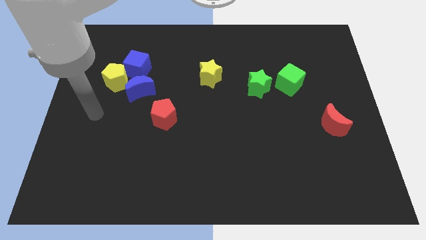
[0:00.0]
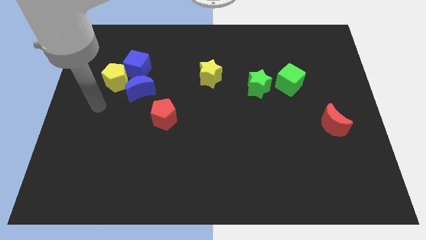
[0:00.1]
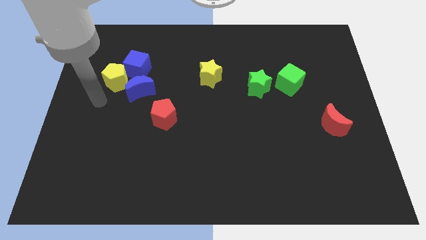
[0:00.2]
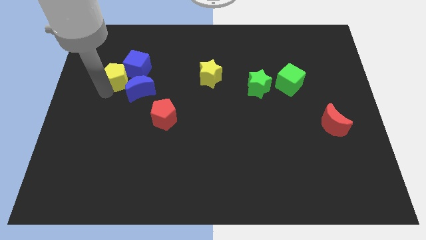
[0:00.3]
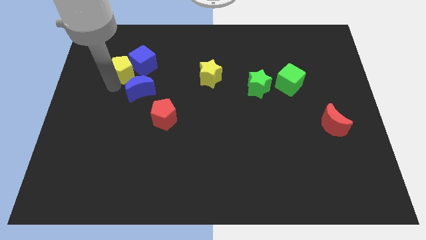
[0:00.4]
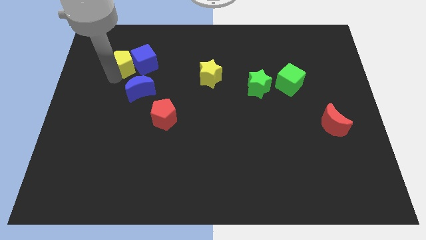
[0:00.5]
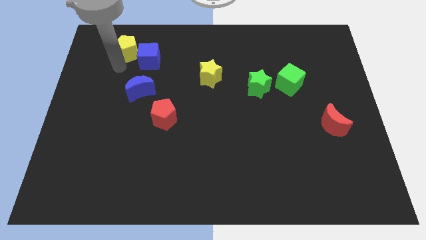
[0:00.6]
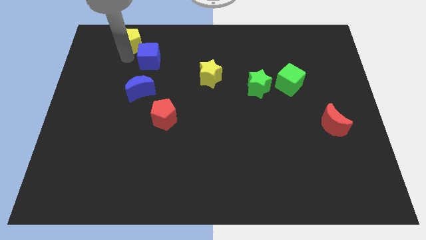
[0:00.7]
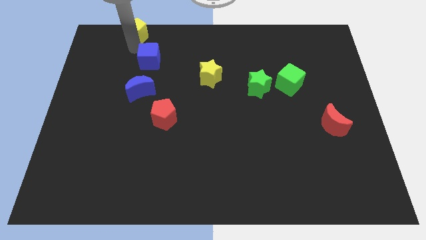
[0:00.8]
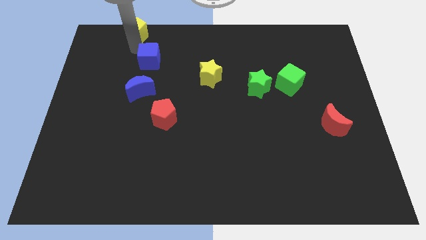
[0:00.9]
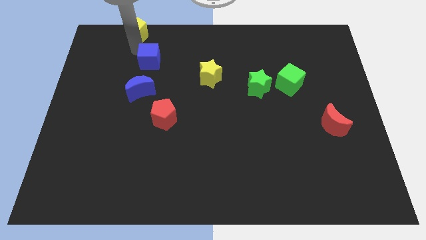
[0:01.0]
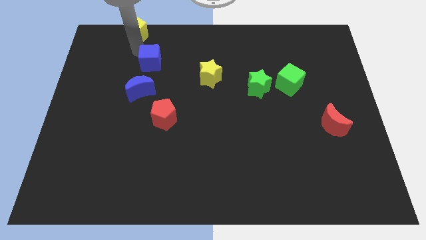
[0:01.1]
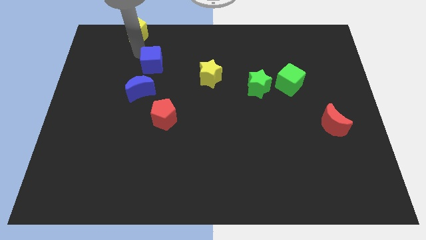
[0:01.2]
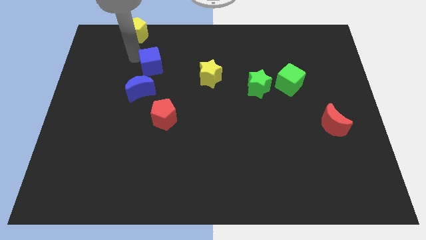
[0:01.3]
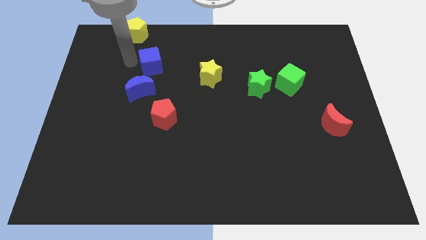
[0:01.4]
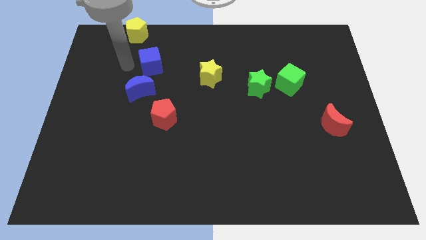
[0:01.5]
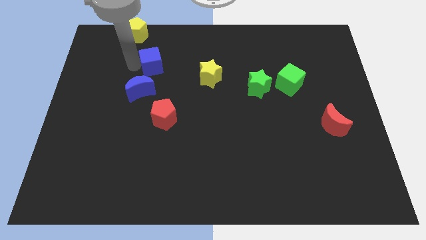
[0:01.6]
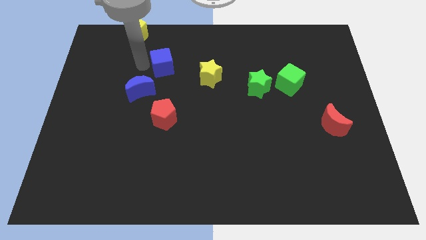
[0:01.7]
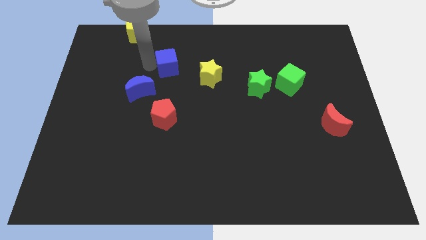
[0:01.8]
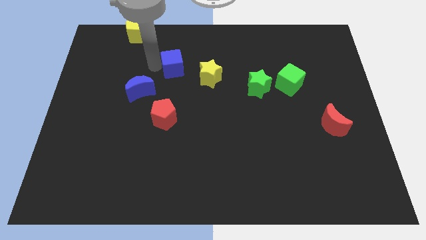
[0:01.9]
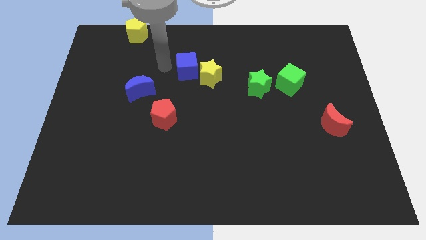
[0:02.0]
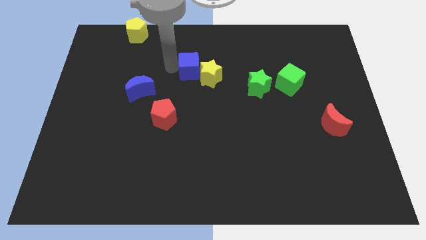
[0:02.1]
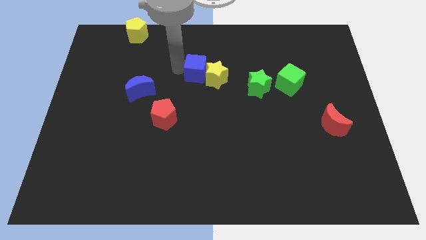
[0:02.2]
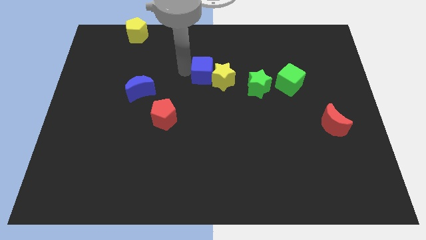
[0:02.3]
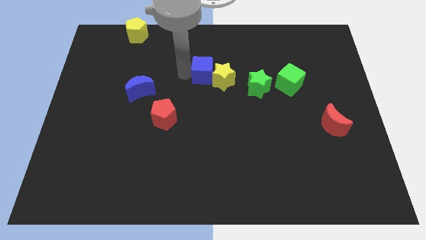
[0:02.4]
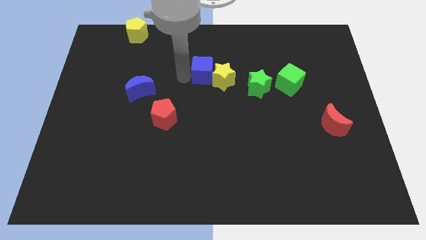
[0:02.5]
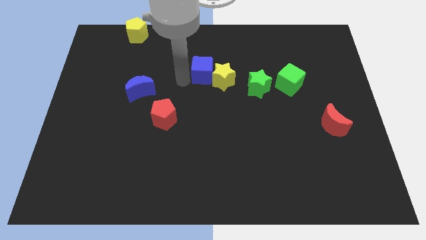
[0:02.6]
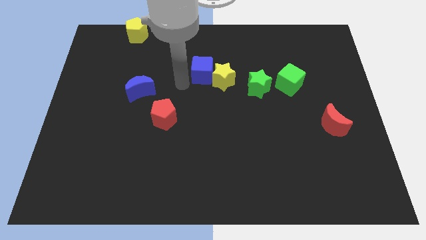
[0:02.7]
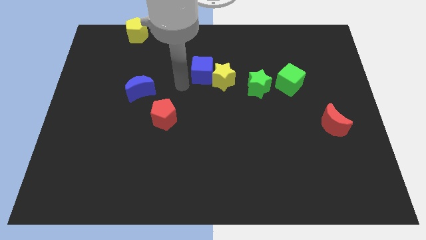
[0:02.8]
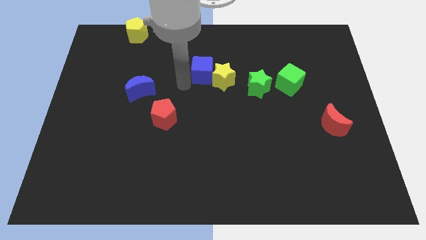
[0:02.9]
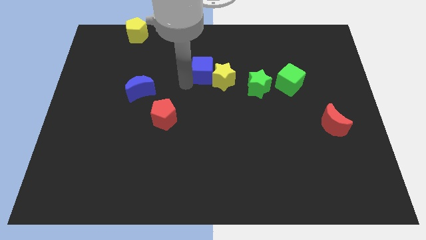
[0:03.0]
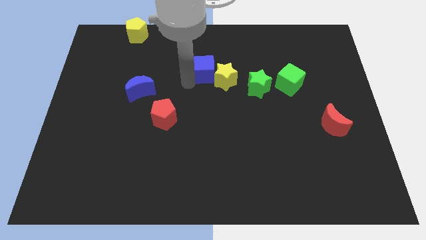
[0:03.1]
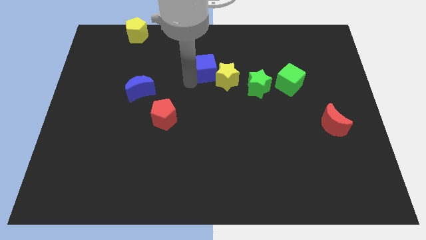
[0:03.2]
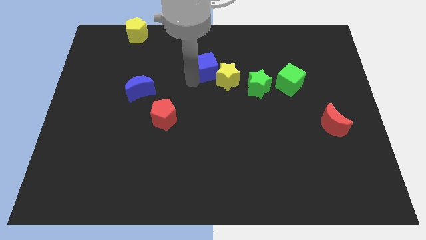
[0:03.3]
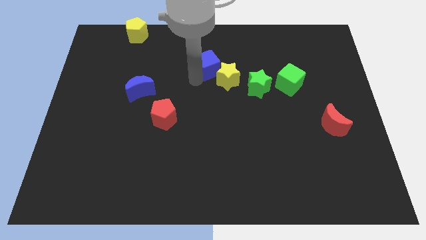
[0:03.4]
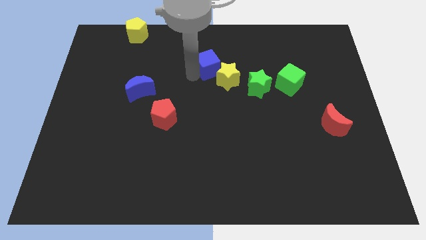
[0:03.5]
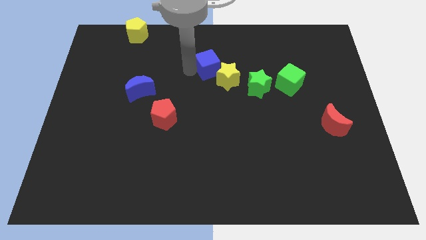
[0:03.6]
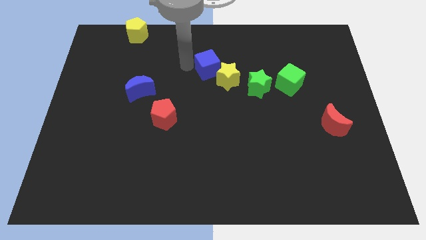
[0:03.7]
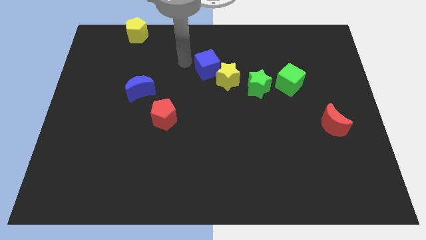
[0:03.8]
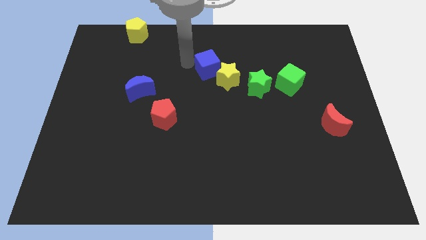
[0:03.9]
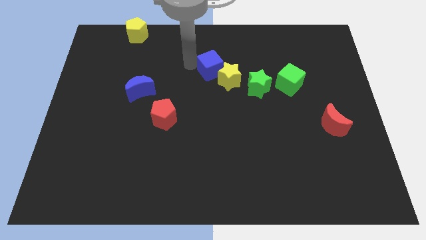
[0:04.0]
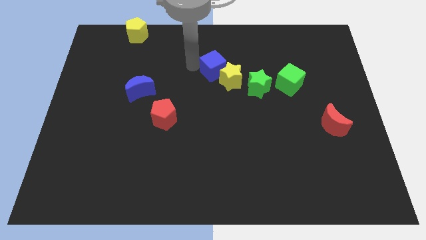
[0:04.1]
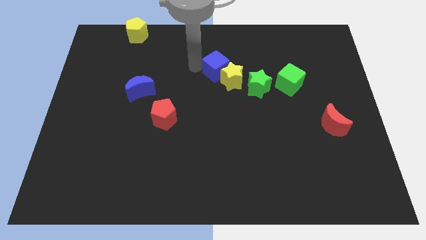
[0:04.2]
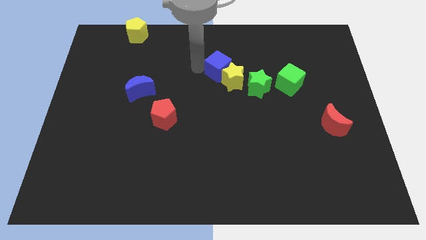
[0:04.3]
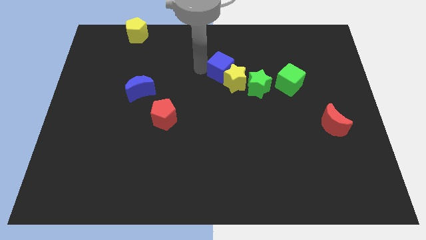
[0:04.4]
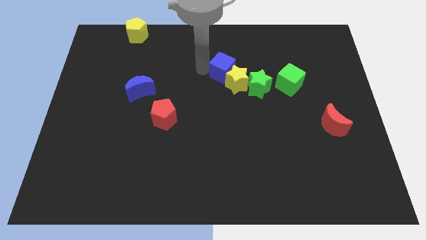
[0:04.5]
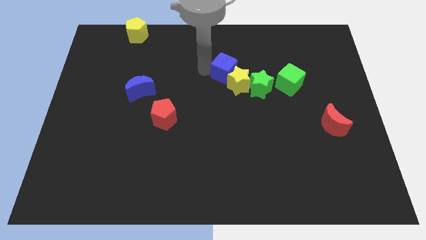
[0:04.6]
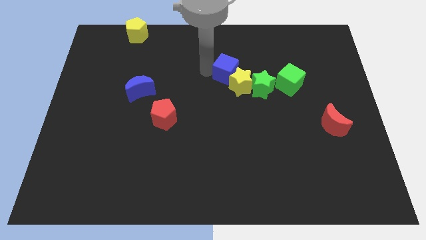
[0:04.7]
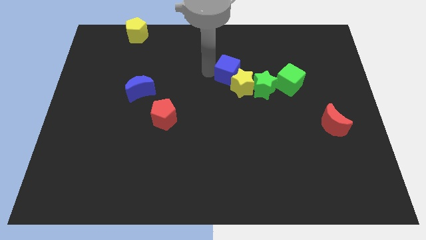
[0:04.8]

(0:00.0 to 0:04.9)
move the blue cube to the left of the green cube

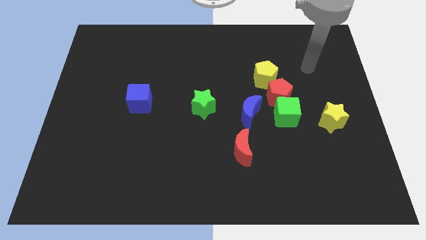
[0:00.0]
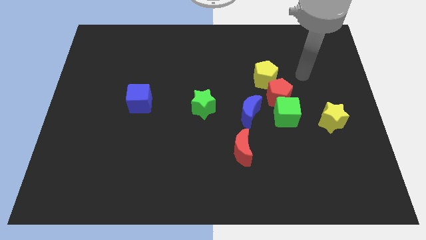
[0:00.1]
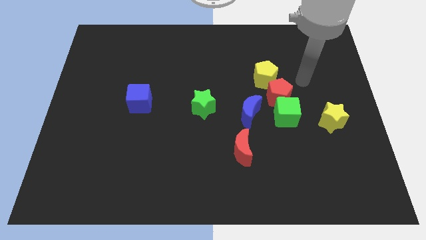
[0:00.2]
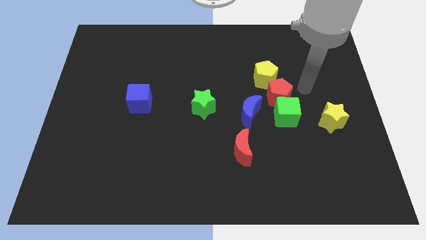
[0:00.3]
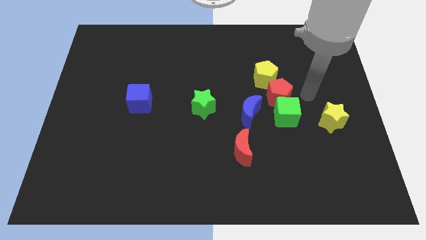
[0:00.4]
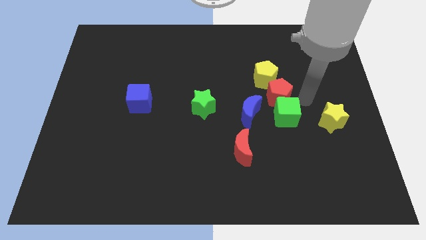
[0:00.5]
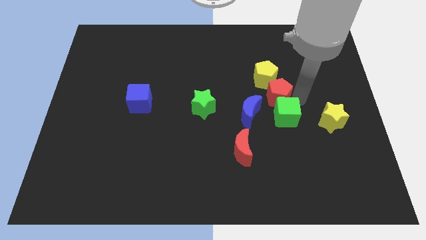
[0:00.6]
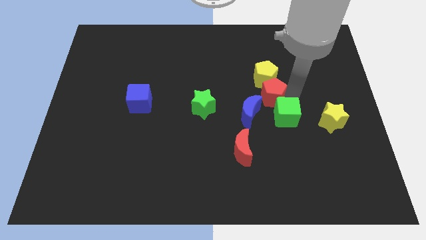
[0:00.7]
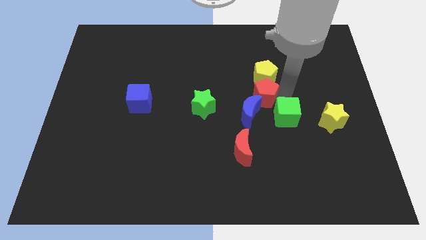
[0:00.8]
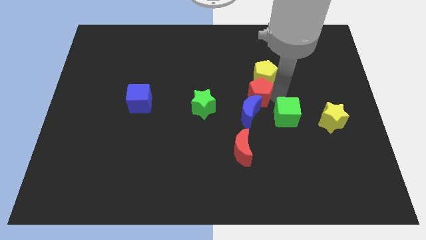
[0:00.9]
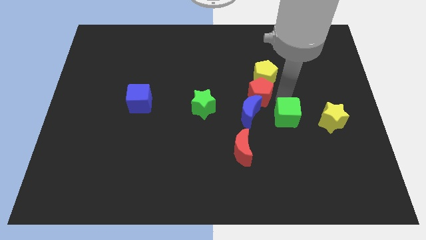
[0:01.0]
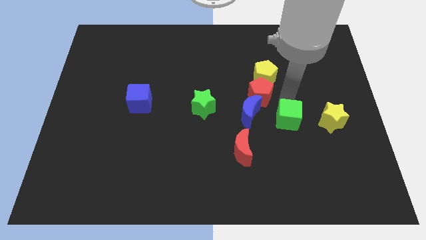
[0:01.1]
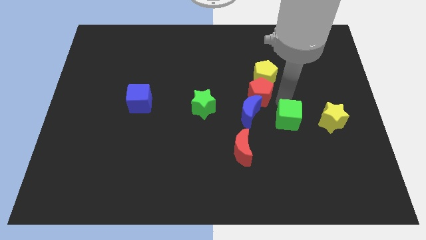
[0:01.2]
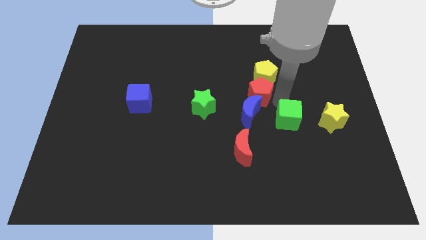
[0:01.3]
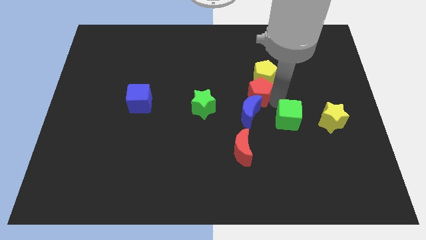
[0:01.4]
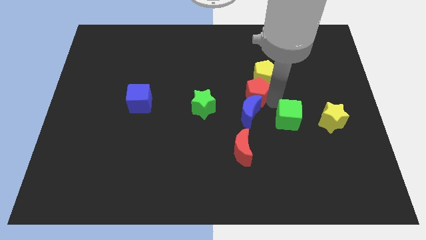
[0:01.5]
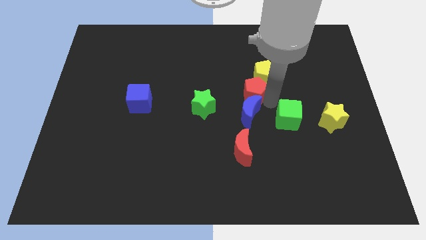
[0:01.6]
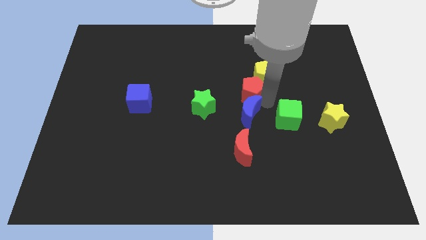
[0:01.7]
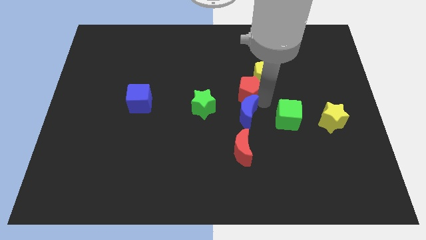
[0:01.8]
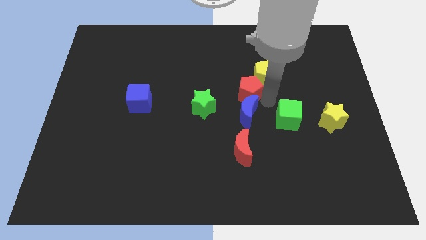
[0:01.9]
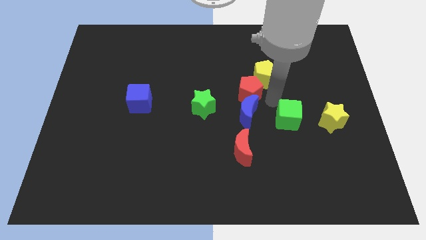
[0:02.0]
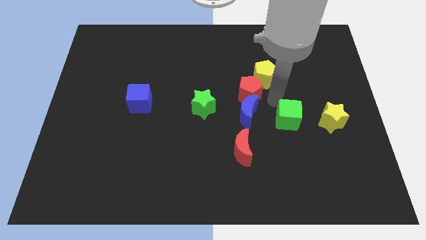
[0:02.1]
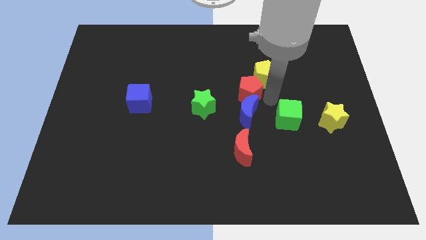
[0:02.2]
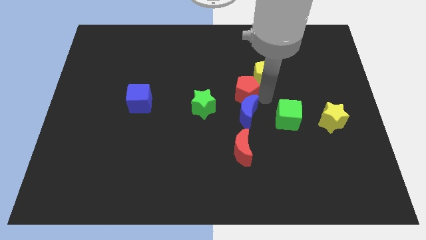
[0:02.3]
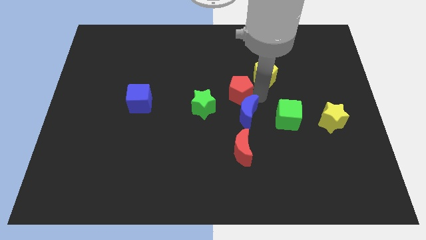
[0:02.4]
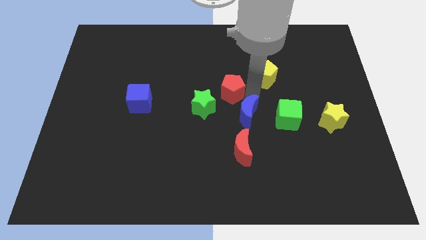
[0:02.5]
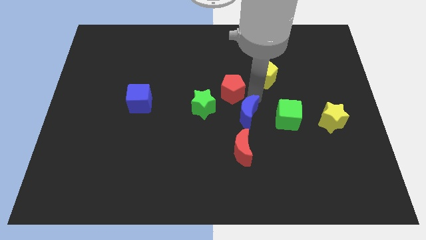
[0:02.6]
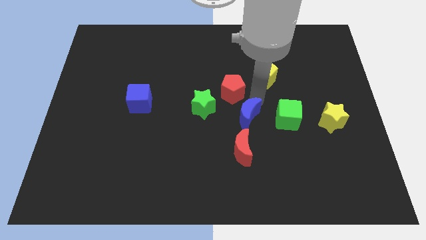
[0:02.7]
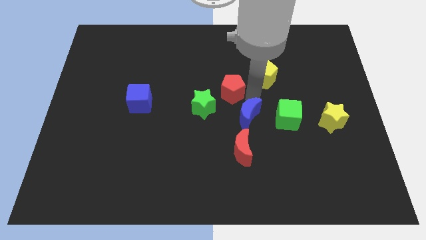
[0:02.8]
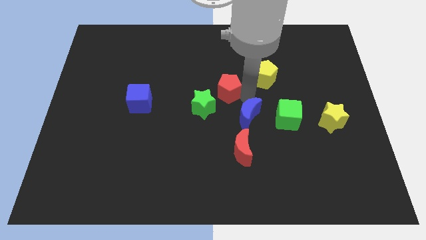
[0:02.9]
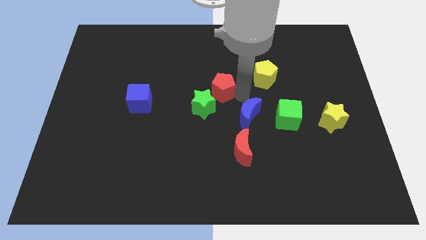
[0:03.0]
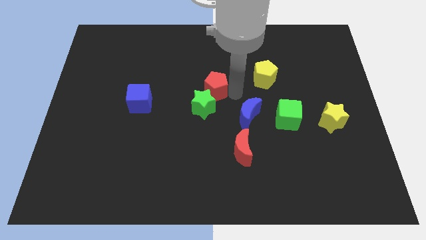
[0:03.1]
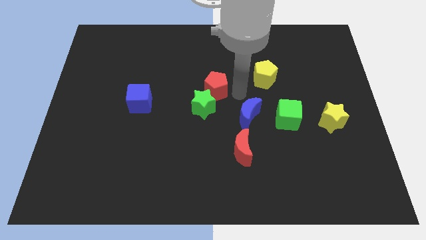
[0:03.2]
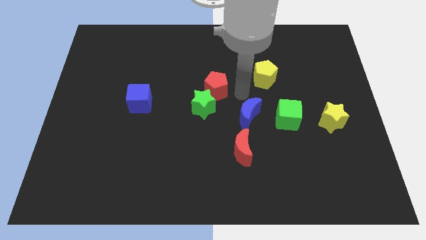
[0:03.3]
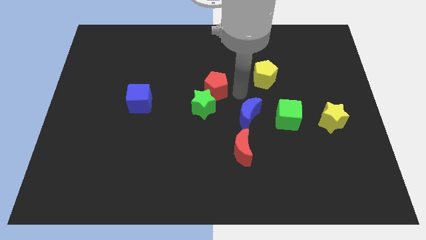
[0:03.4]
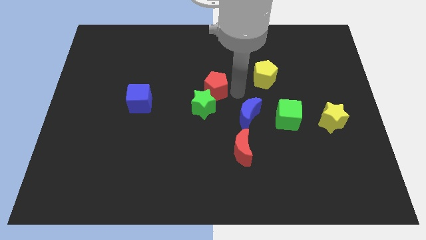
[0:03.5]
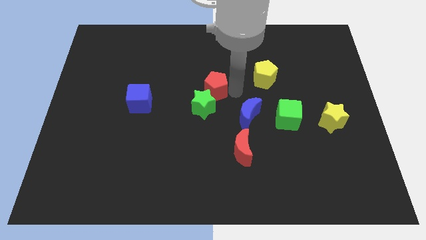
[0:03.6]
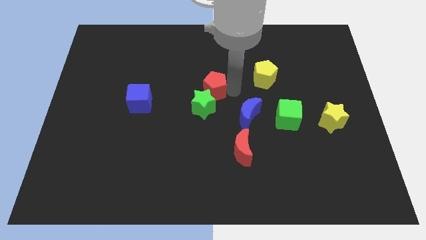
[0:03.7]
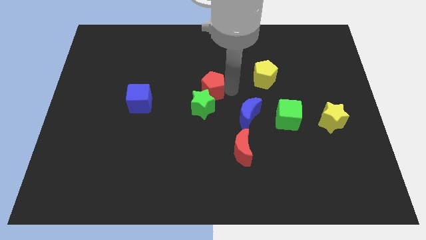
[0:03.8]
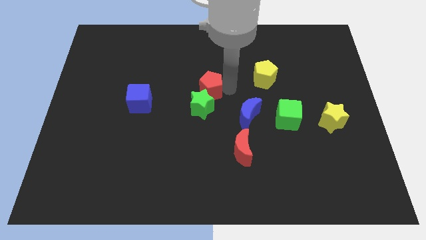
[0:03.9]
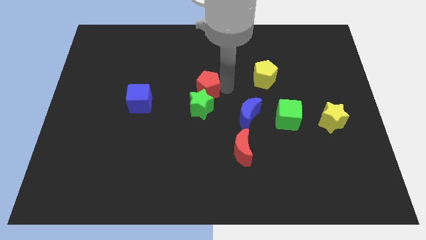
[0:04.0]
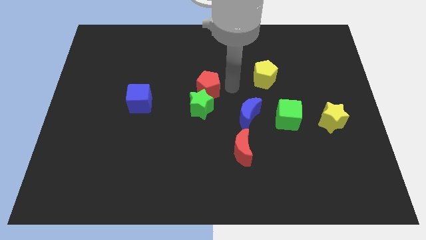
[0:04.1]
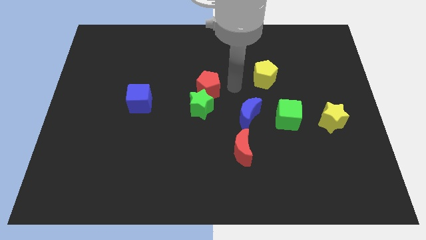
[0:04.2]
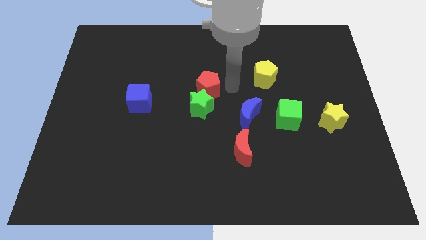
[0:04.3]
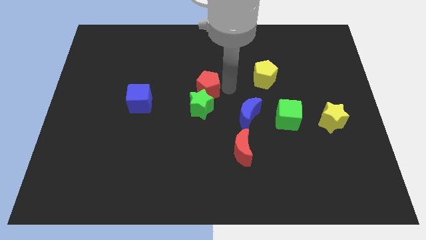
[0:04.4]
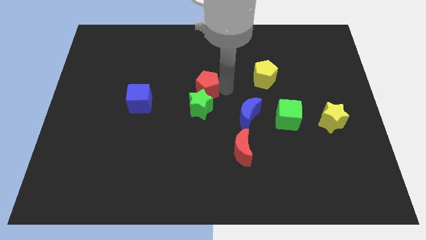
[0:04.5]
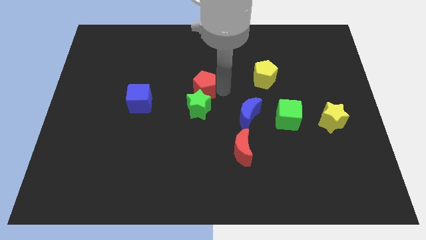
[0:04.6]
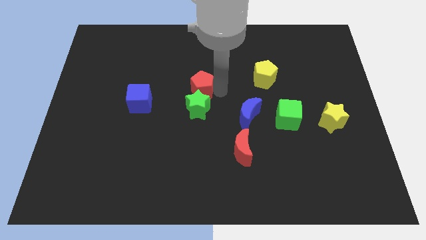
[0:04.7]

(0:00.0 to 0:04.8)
slide the red pentagon to the top left side of the green star
